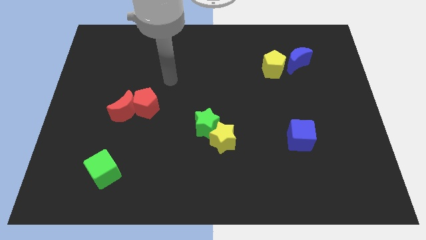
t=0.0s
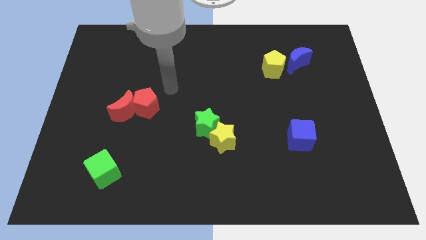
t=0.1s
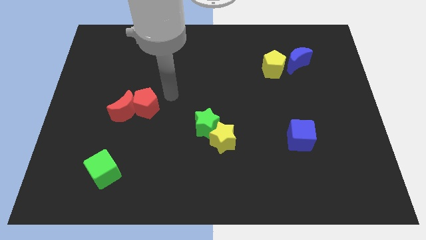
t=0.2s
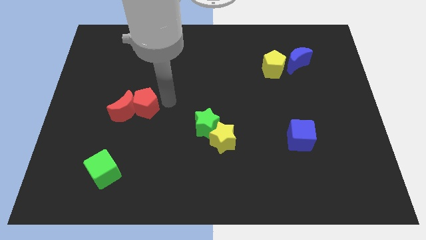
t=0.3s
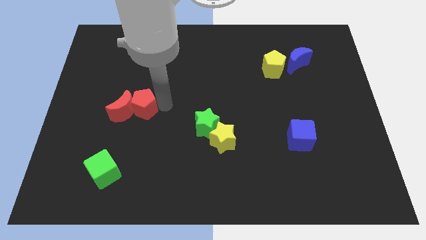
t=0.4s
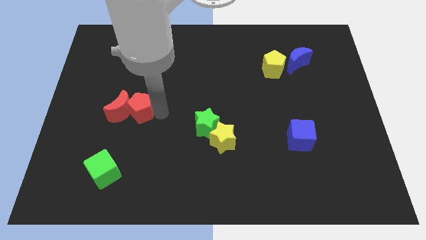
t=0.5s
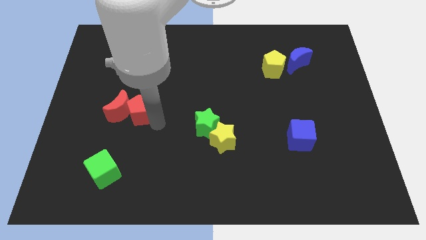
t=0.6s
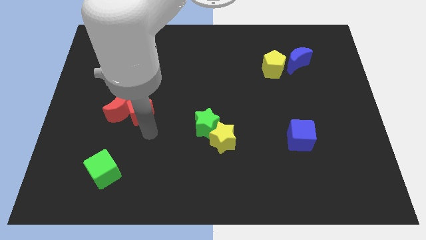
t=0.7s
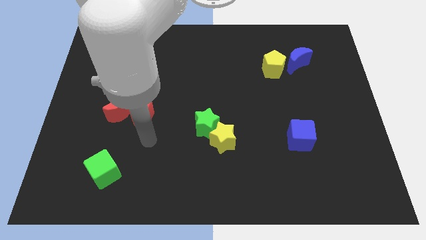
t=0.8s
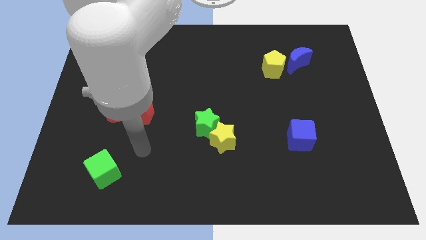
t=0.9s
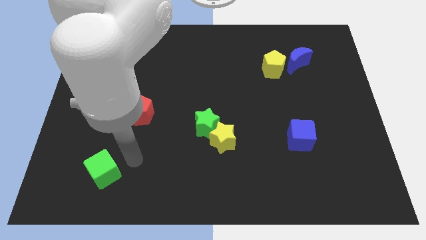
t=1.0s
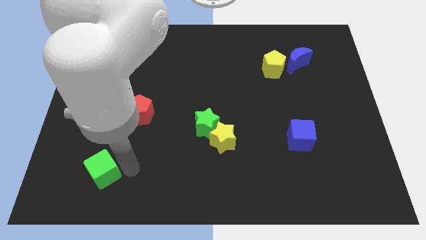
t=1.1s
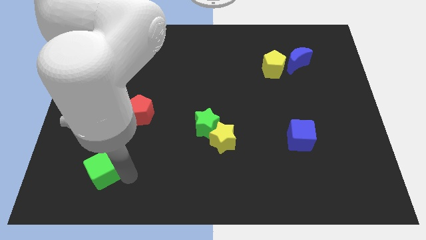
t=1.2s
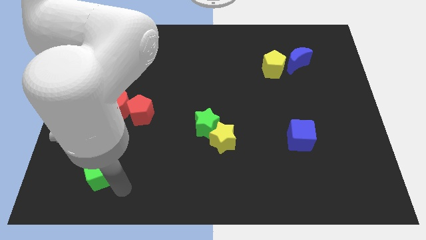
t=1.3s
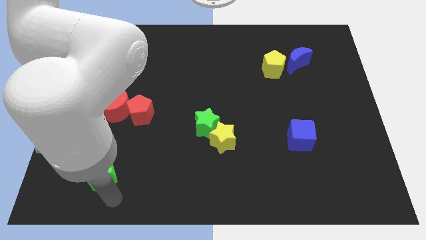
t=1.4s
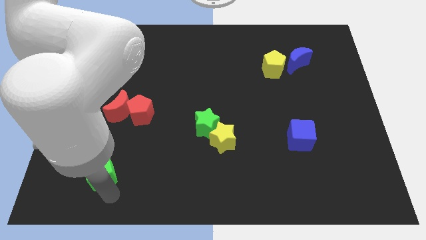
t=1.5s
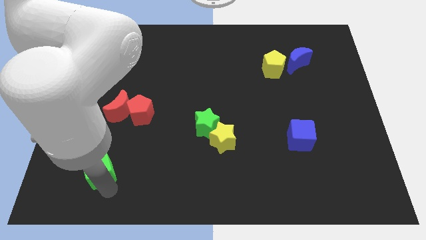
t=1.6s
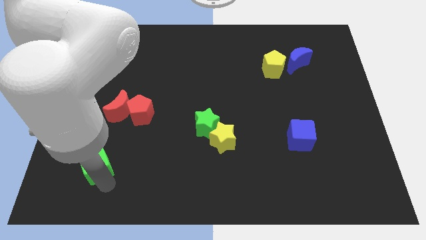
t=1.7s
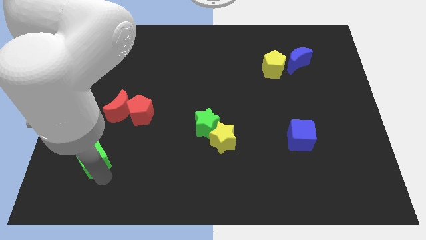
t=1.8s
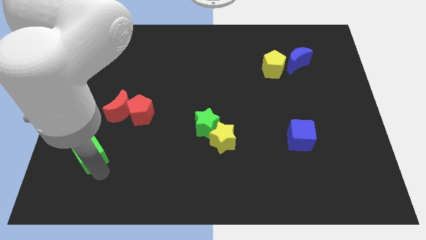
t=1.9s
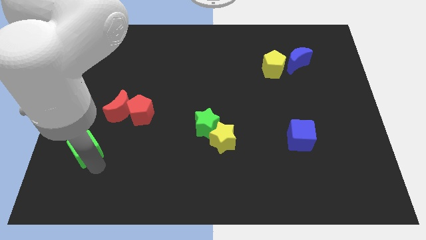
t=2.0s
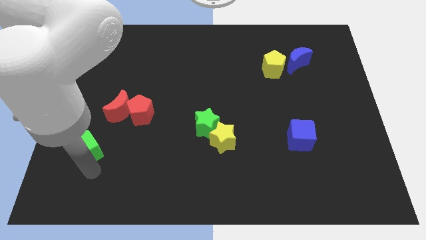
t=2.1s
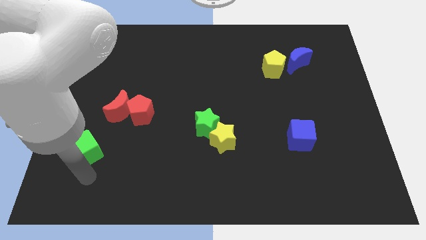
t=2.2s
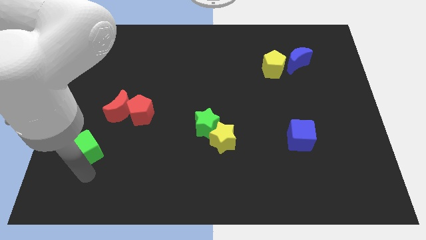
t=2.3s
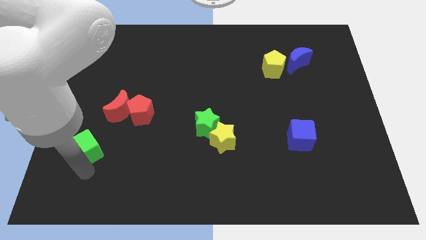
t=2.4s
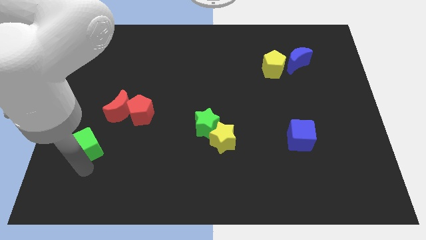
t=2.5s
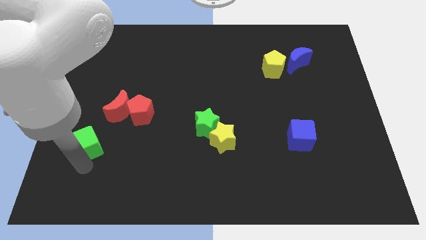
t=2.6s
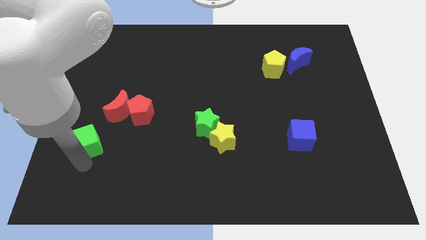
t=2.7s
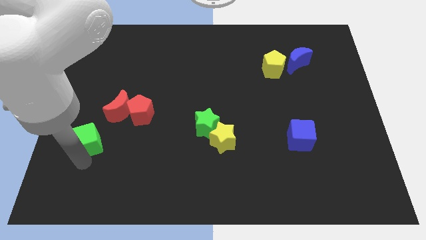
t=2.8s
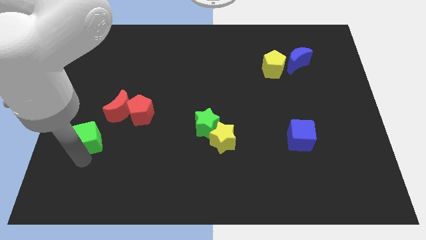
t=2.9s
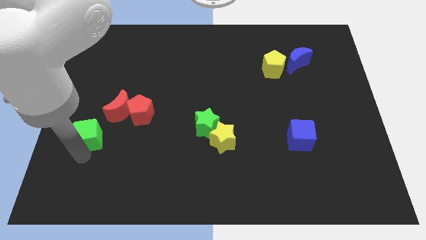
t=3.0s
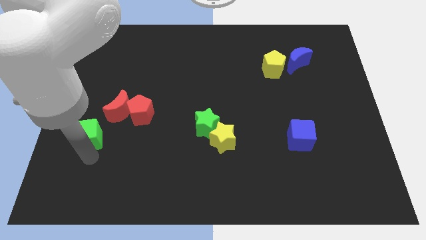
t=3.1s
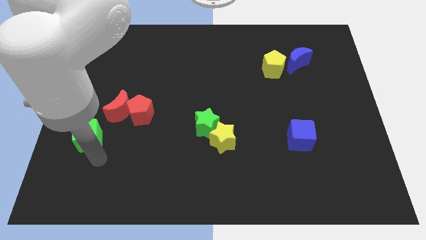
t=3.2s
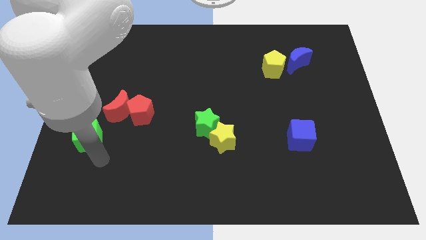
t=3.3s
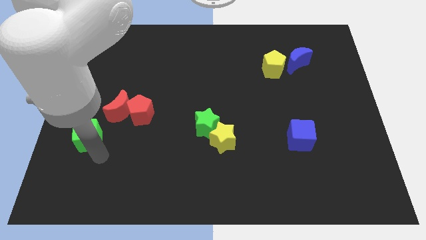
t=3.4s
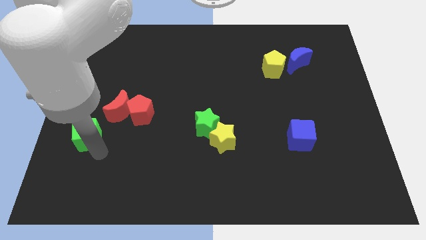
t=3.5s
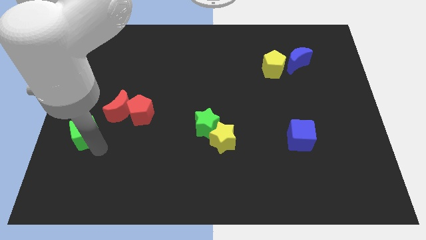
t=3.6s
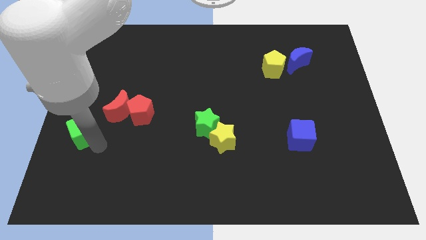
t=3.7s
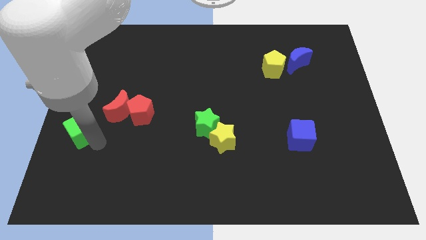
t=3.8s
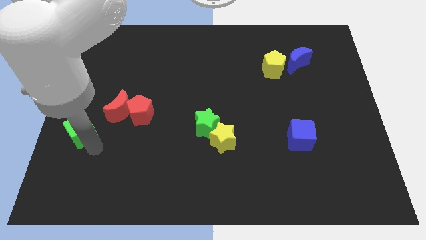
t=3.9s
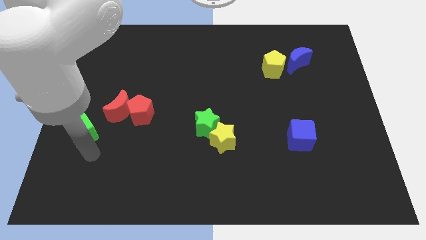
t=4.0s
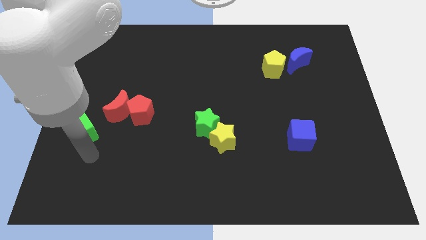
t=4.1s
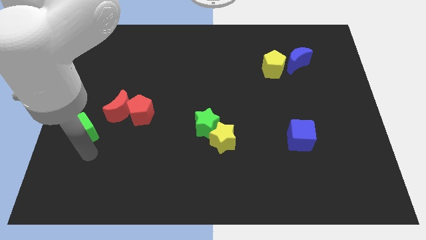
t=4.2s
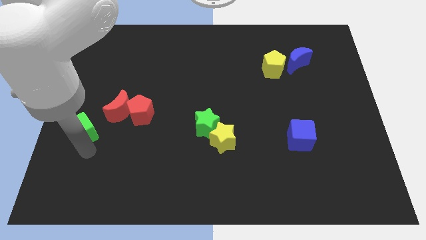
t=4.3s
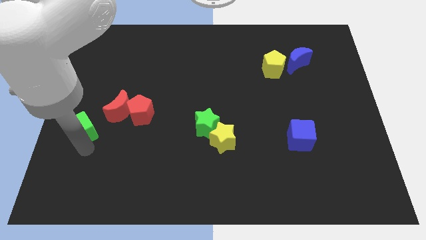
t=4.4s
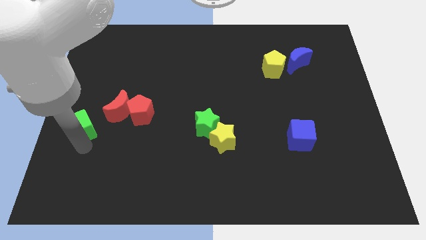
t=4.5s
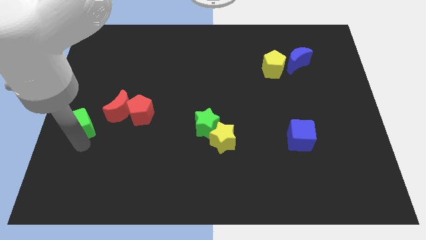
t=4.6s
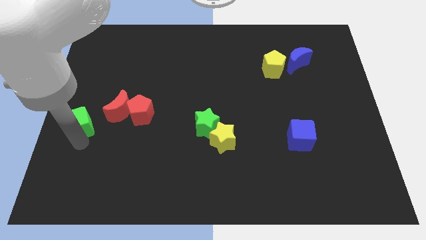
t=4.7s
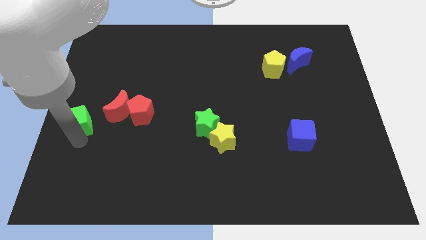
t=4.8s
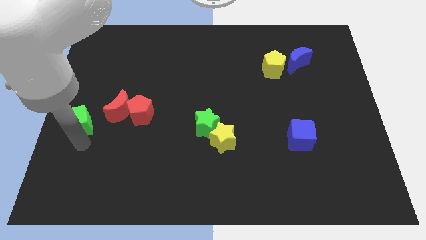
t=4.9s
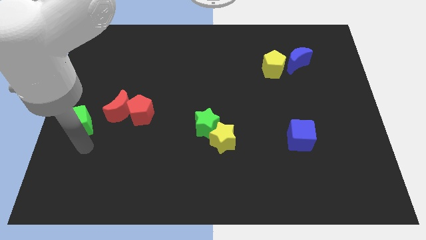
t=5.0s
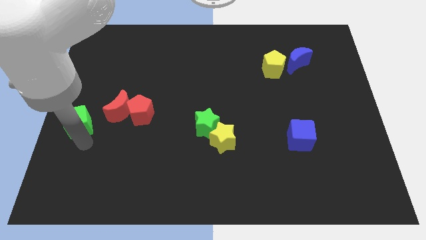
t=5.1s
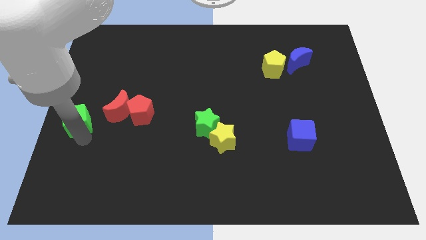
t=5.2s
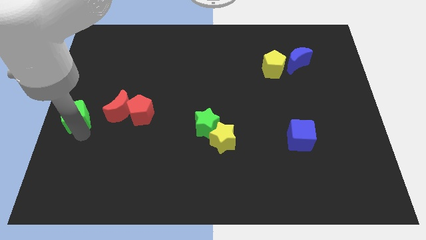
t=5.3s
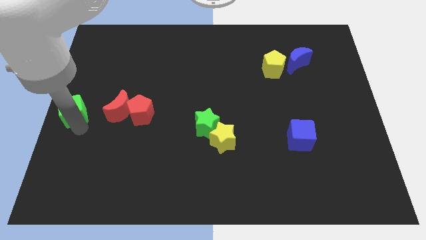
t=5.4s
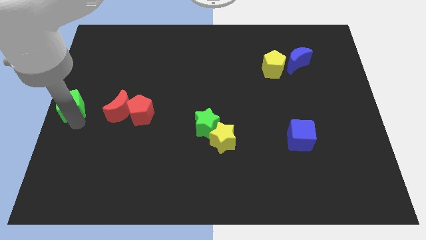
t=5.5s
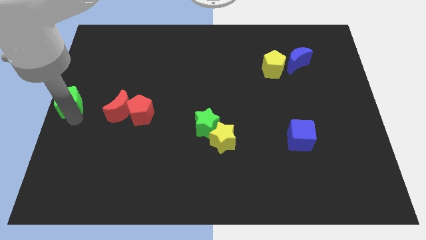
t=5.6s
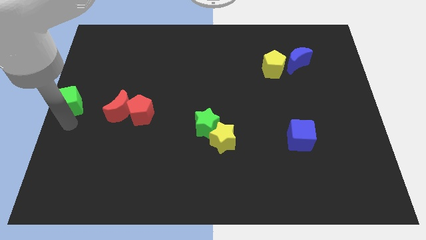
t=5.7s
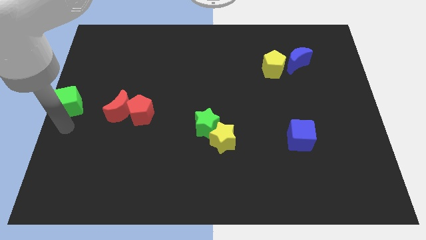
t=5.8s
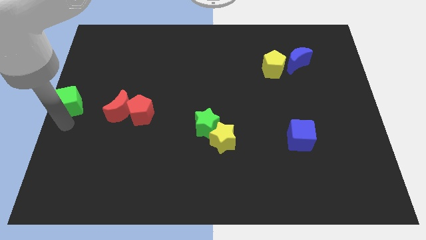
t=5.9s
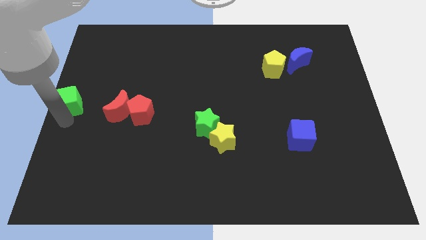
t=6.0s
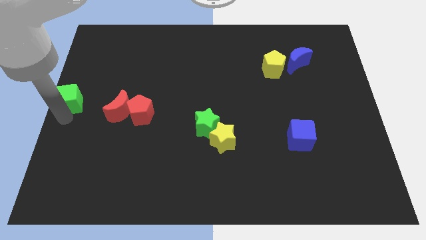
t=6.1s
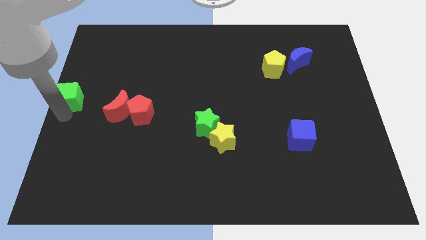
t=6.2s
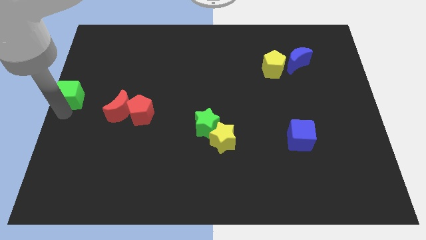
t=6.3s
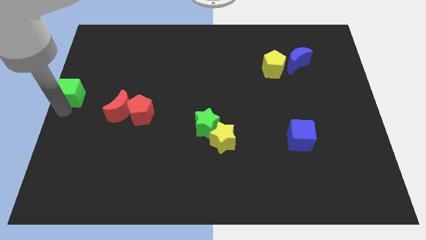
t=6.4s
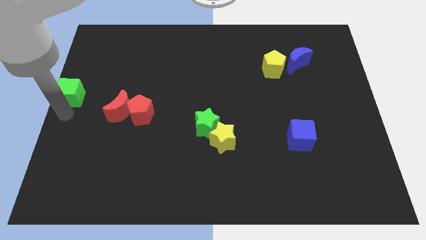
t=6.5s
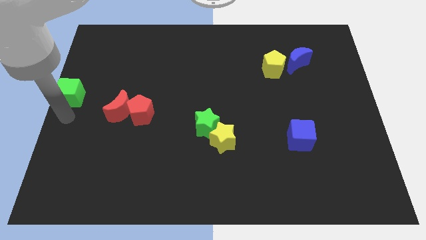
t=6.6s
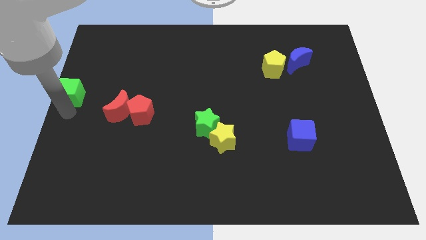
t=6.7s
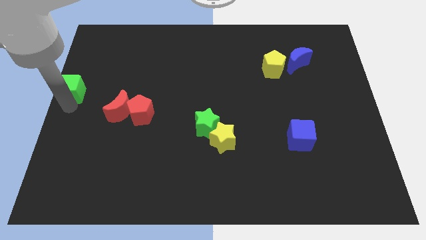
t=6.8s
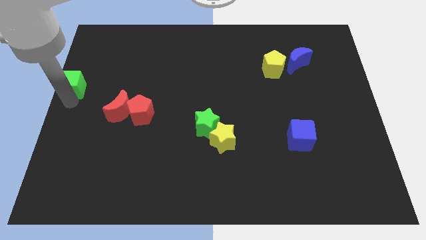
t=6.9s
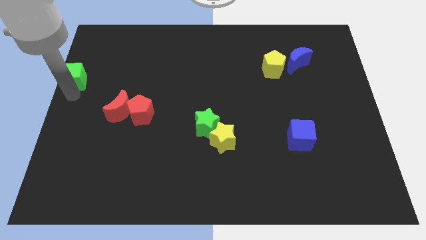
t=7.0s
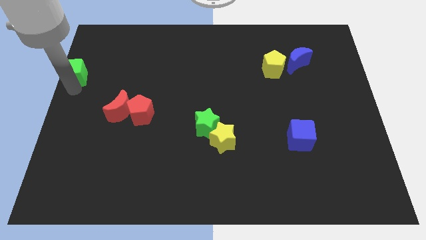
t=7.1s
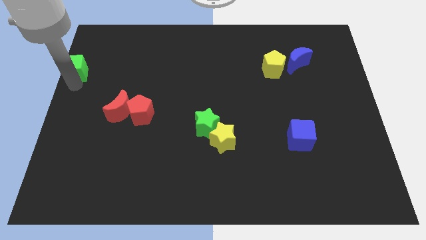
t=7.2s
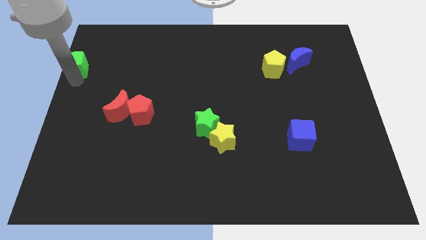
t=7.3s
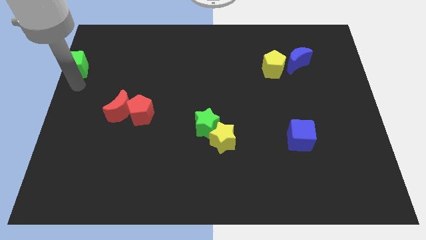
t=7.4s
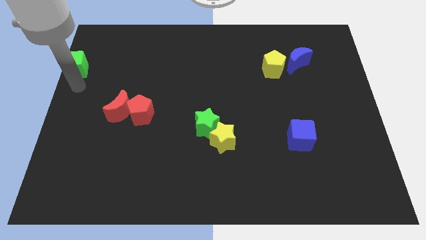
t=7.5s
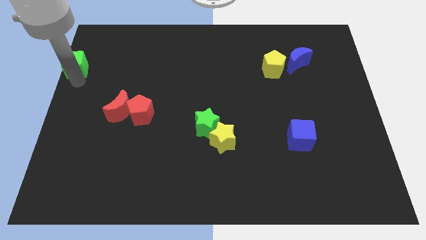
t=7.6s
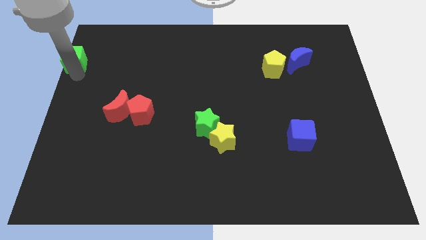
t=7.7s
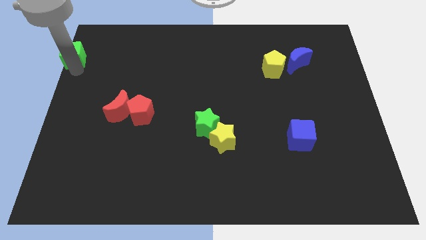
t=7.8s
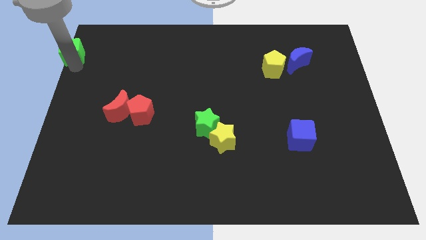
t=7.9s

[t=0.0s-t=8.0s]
put the green cube to the top left corner
